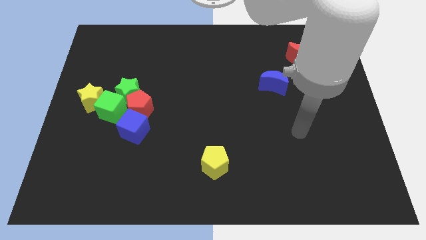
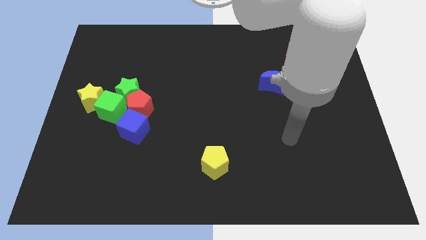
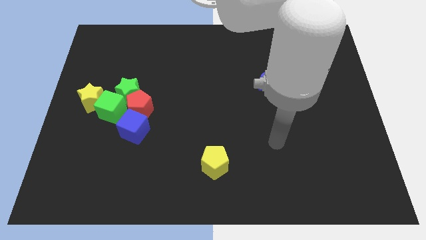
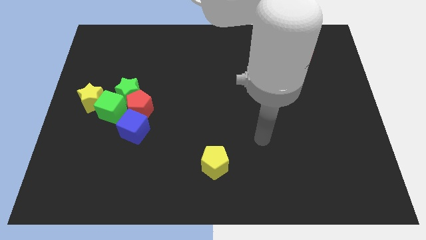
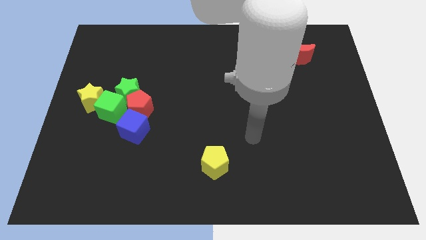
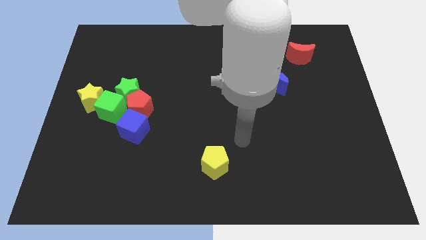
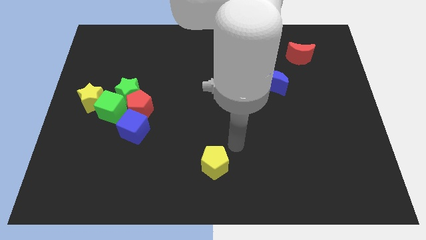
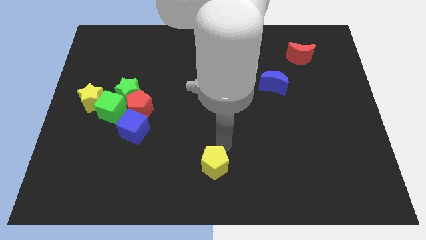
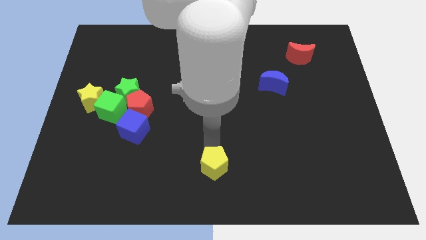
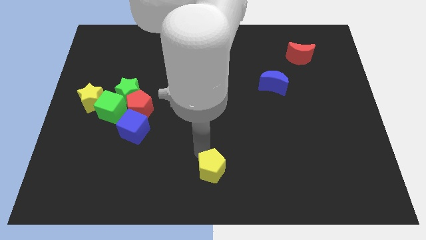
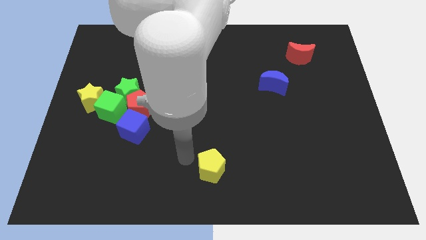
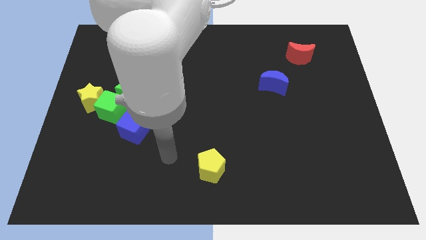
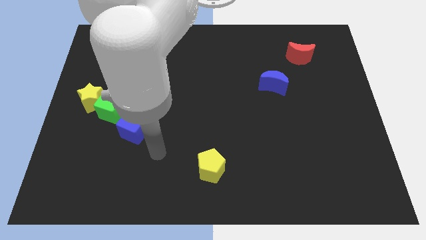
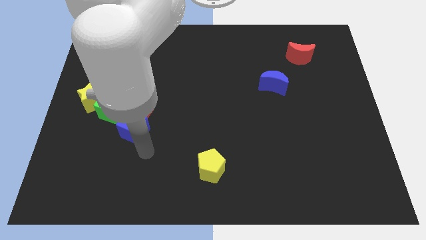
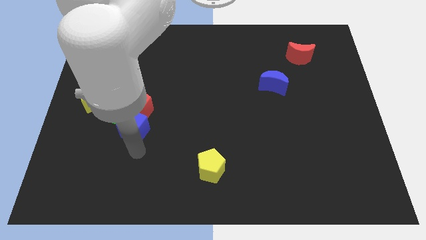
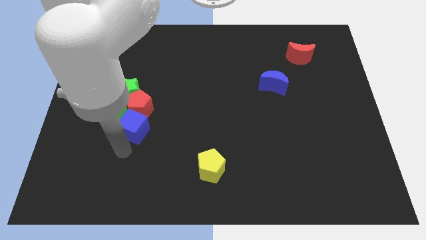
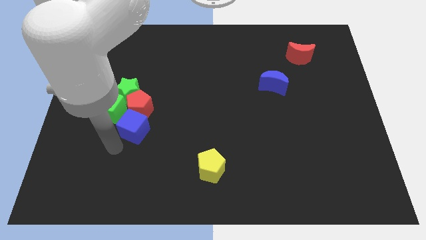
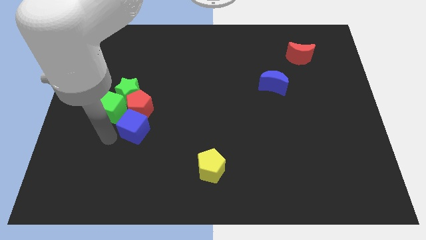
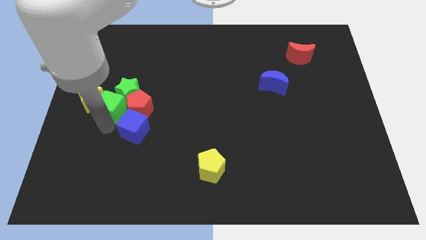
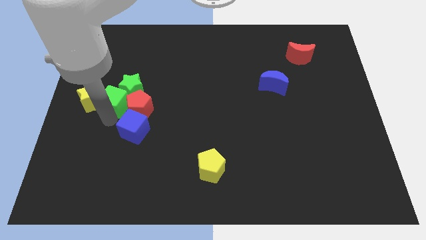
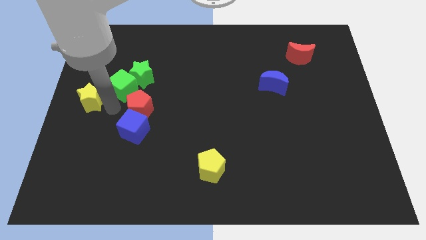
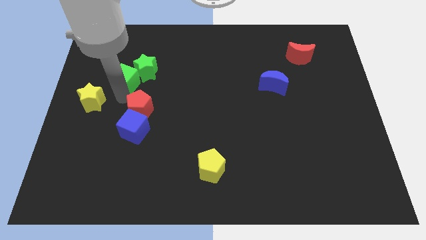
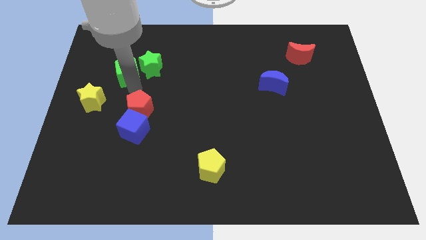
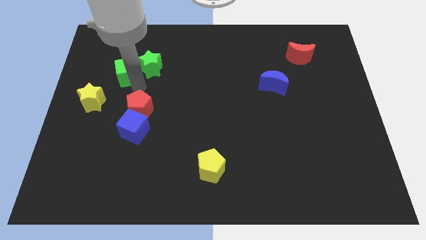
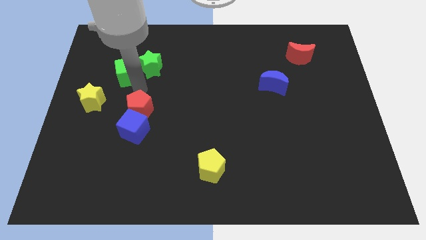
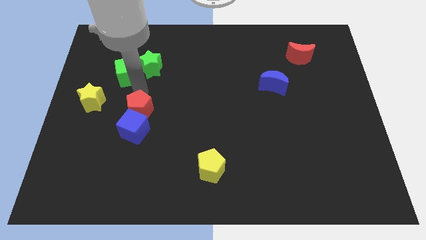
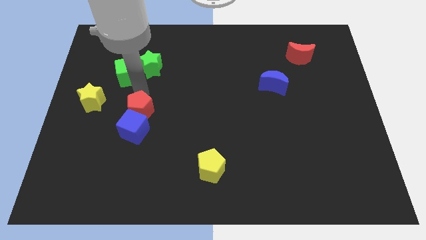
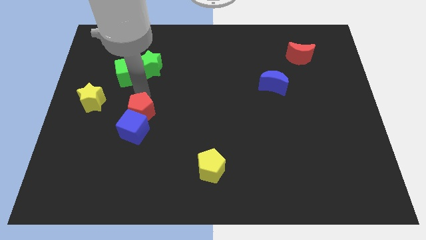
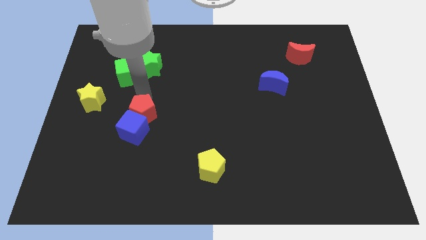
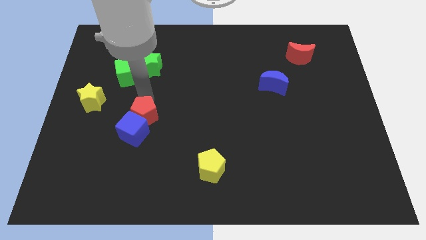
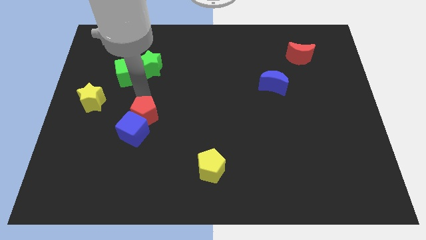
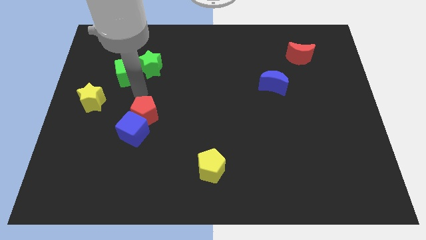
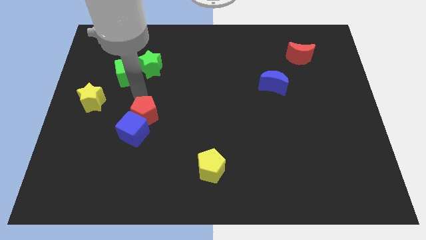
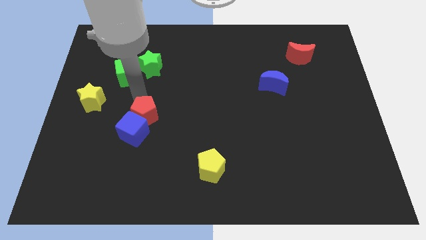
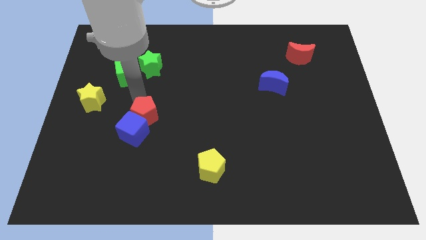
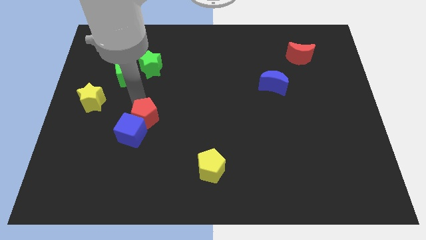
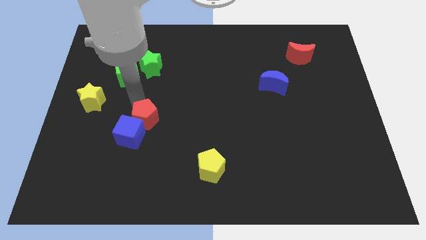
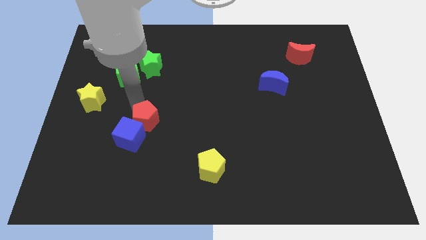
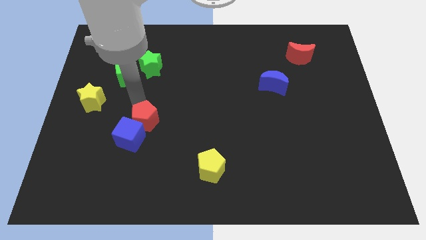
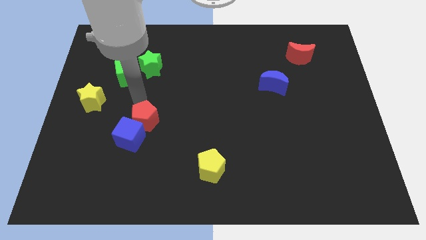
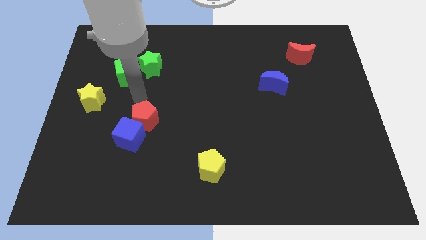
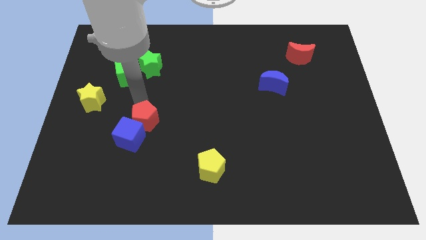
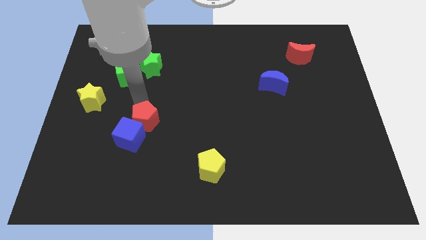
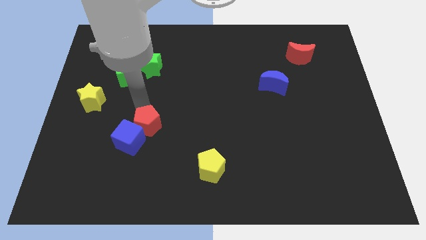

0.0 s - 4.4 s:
move the red pentagon away from the green star, blue cube, and green cube

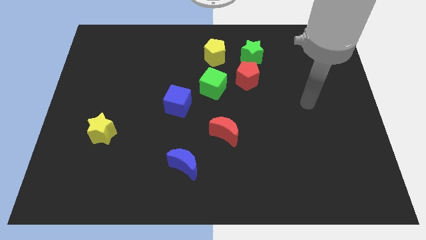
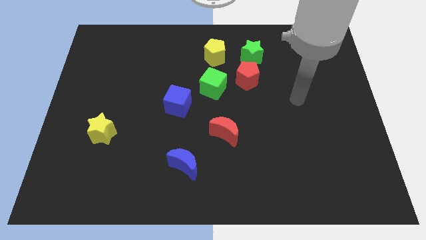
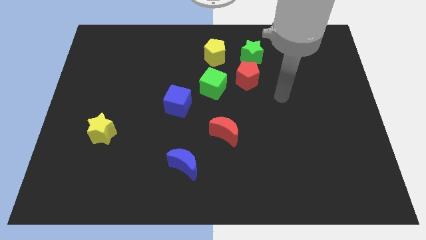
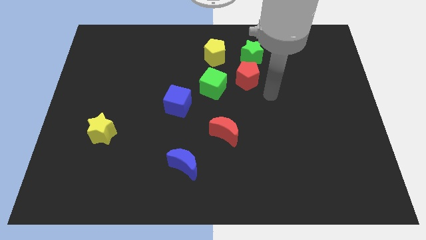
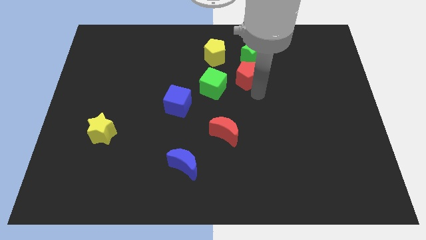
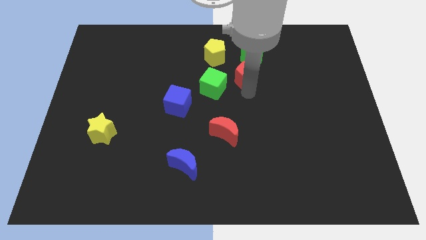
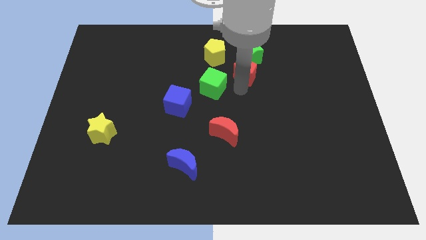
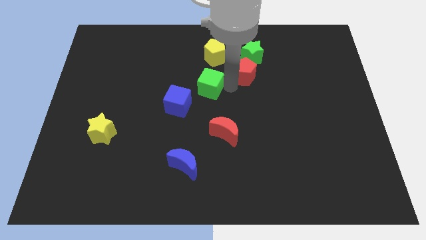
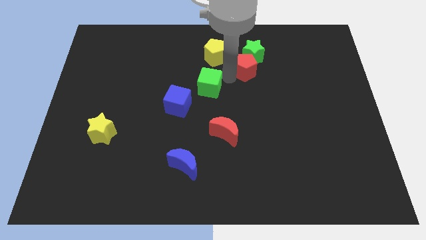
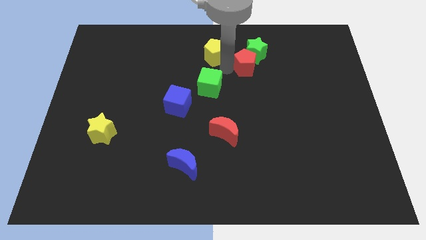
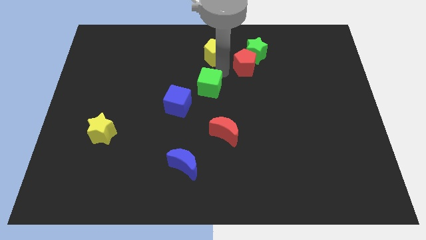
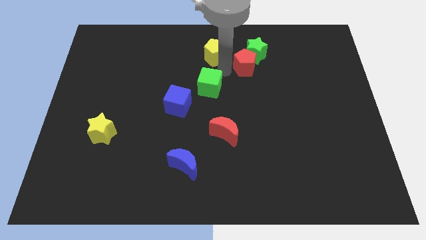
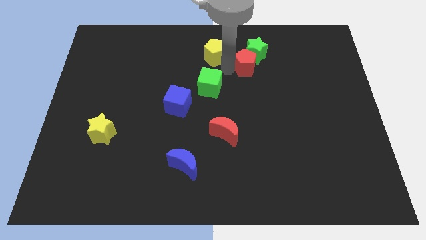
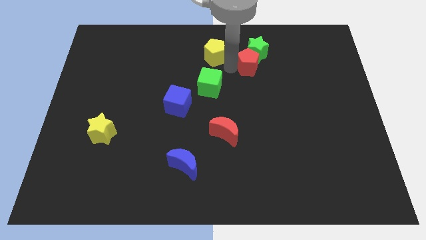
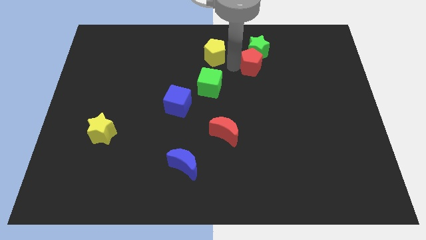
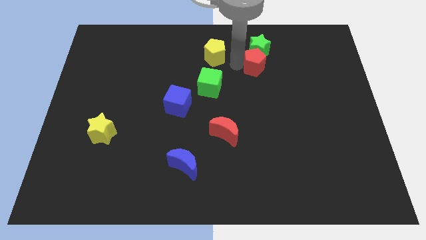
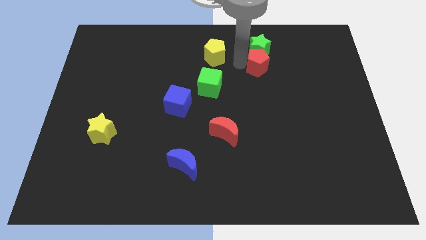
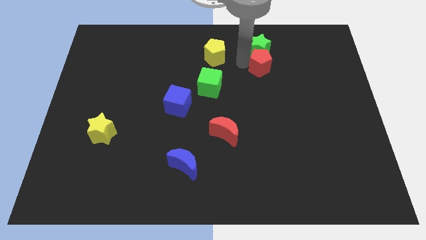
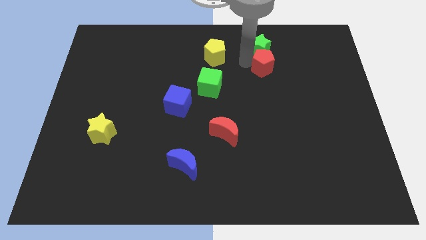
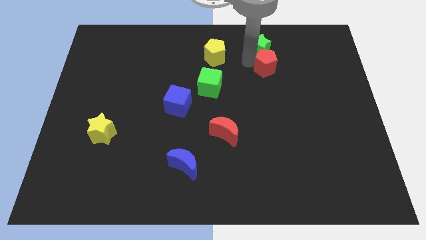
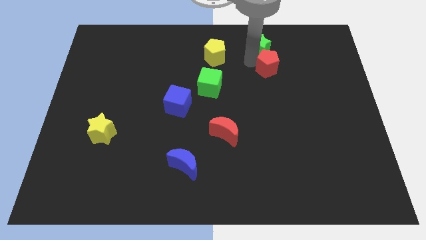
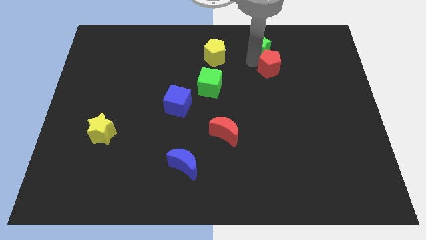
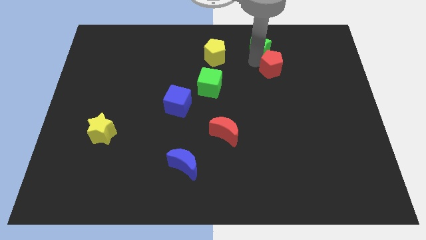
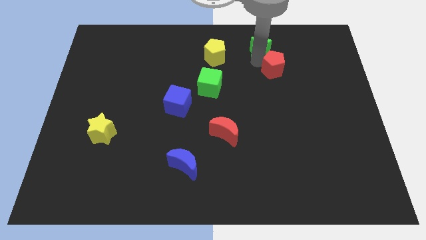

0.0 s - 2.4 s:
move the red pentagon away from the green star and green cube

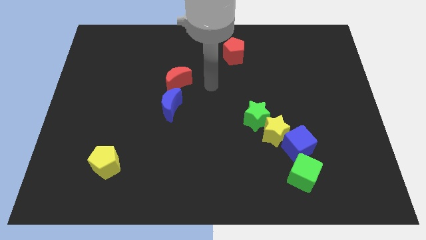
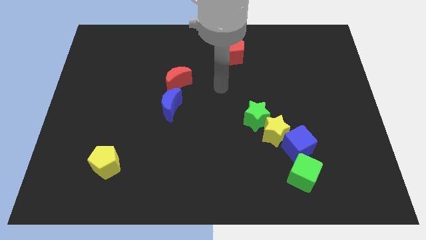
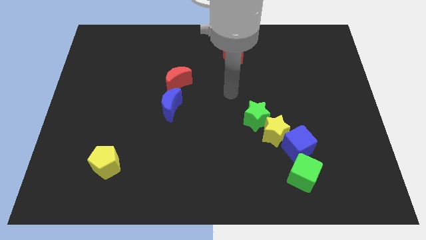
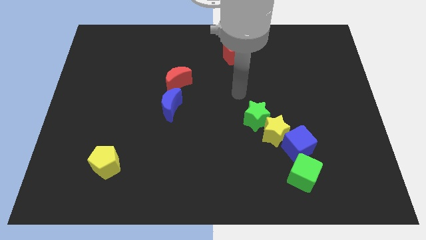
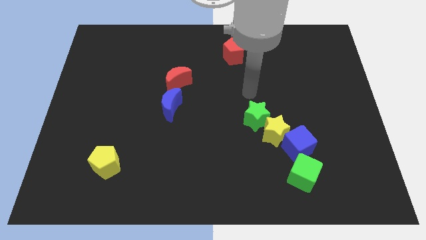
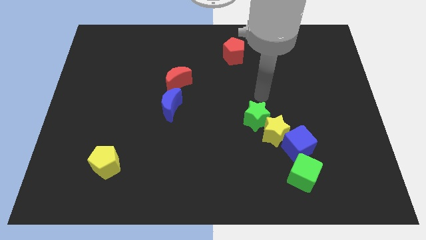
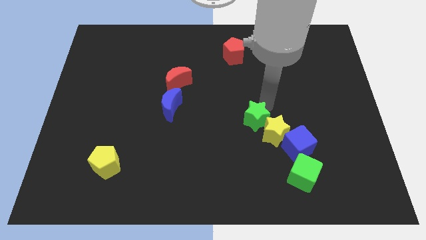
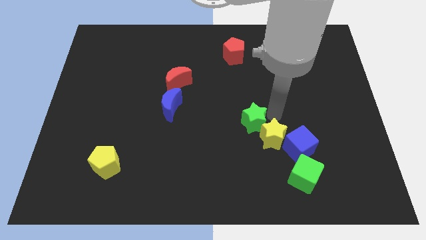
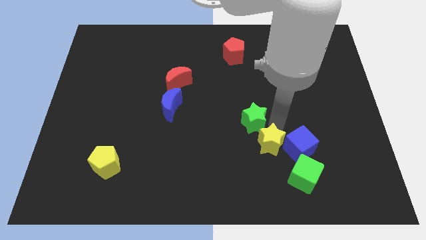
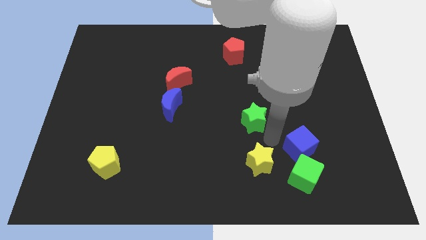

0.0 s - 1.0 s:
pull the green star apart from the yellow star

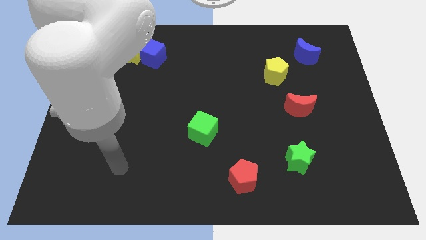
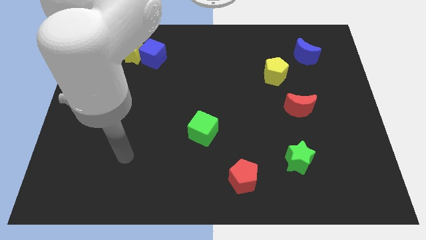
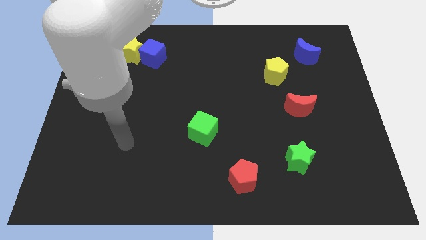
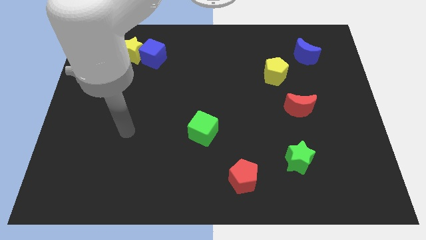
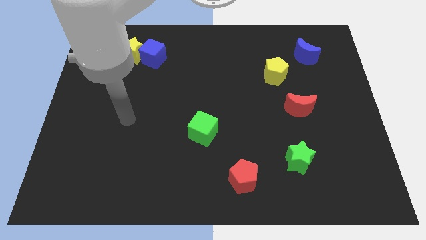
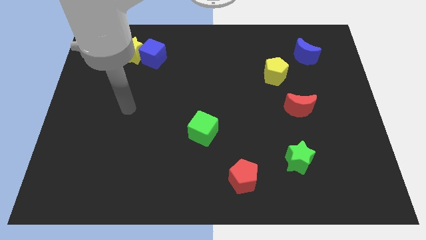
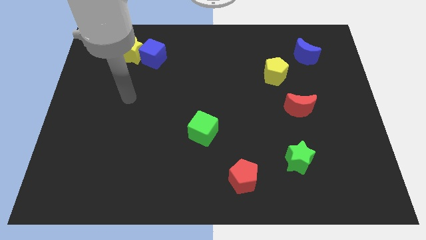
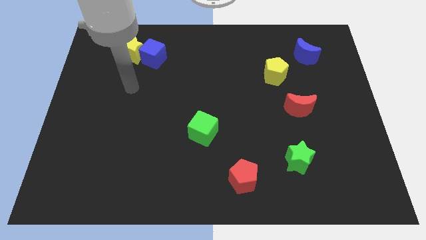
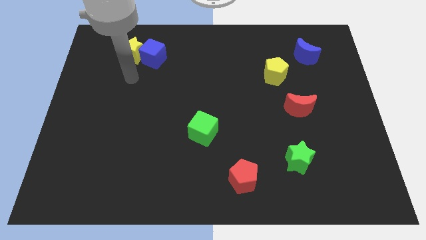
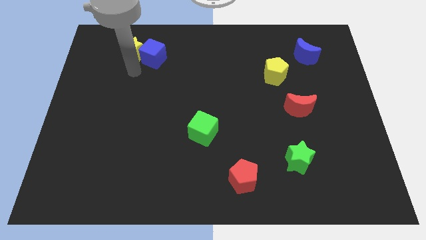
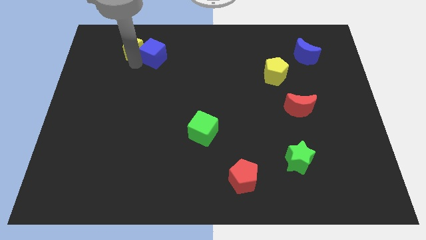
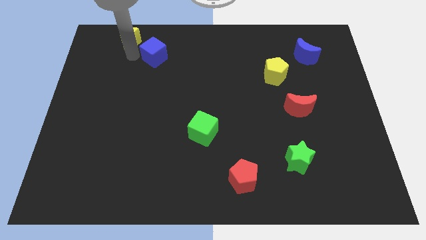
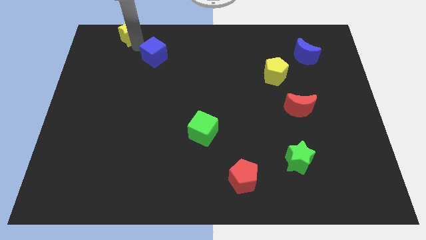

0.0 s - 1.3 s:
move the blue cube away from the yellow star
